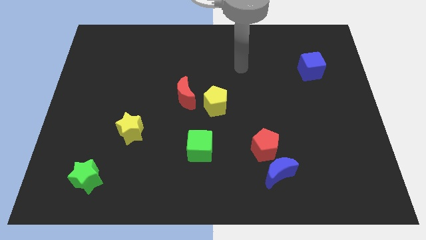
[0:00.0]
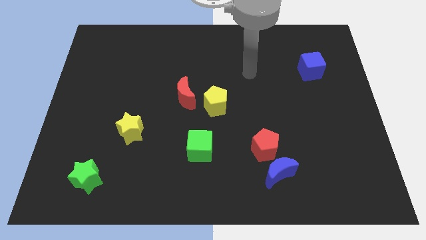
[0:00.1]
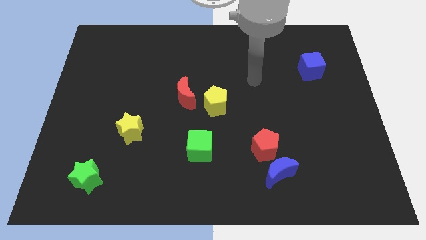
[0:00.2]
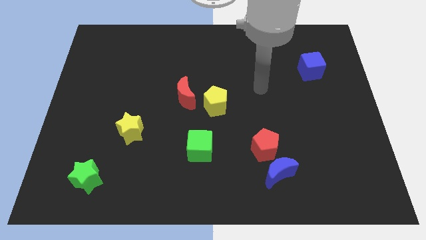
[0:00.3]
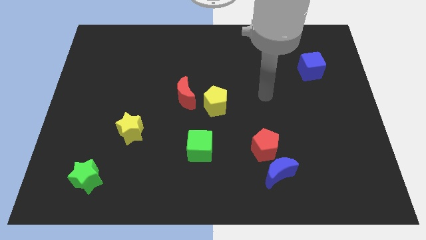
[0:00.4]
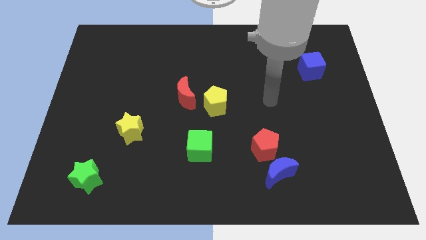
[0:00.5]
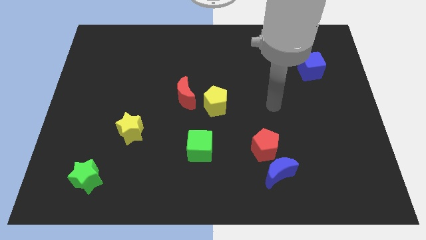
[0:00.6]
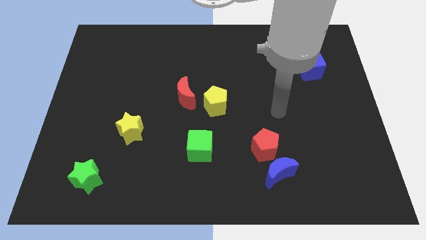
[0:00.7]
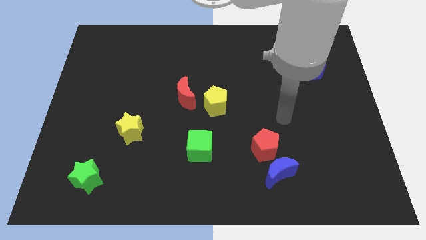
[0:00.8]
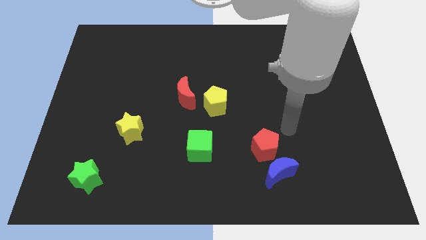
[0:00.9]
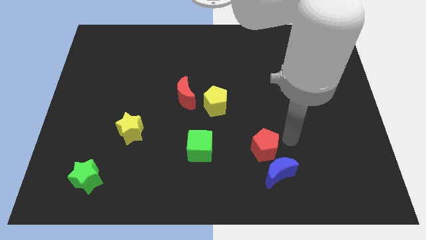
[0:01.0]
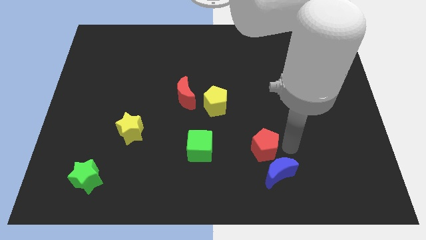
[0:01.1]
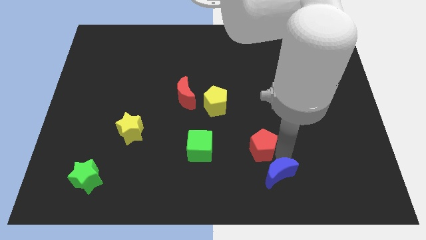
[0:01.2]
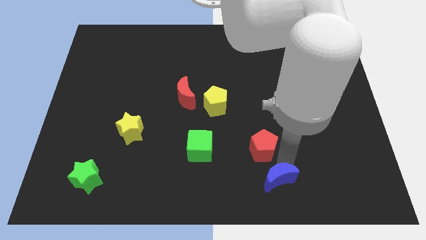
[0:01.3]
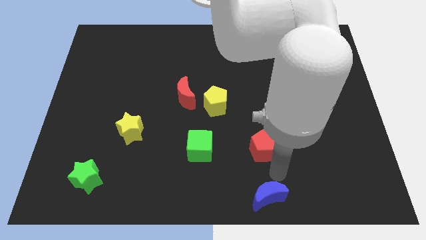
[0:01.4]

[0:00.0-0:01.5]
pull the red pentagon apart from the blue moon

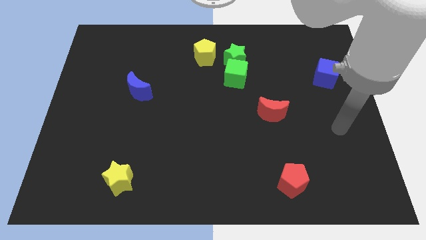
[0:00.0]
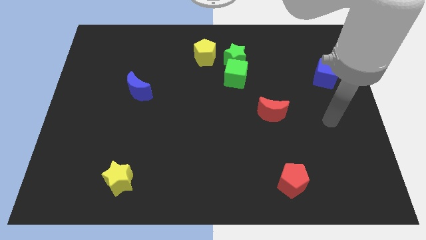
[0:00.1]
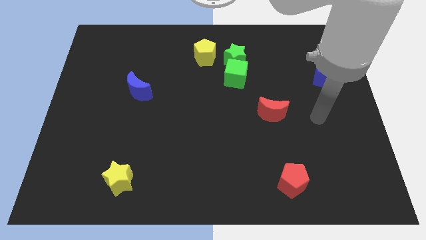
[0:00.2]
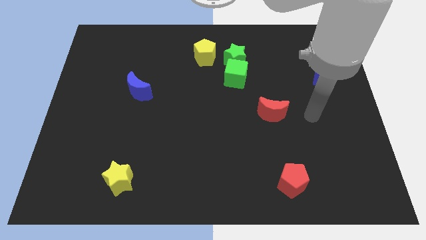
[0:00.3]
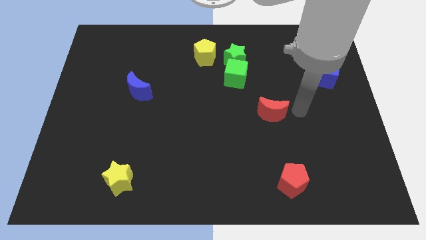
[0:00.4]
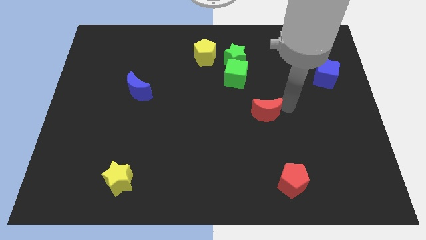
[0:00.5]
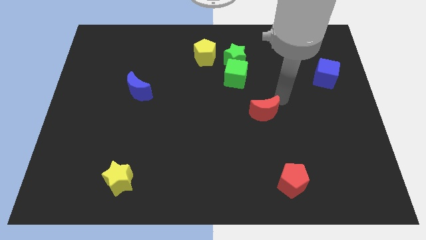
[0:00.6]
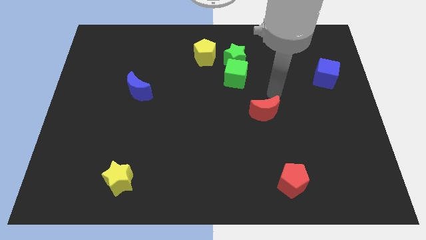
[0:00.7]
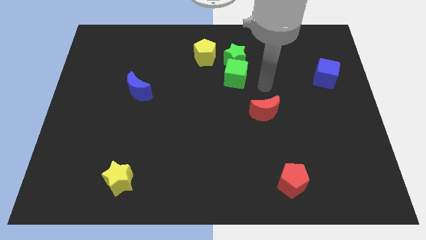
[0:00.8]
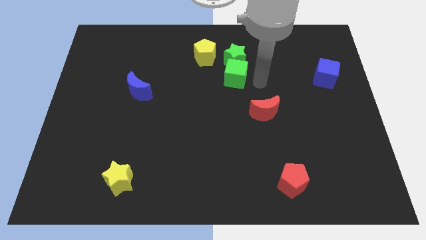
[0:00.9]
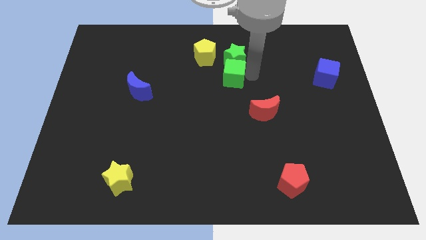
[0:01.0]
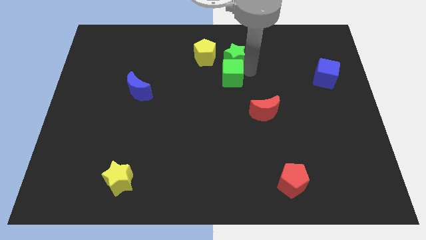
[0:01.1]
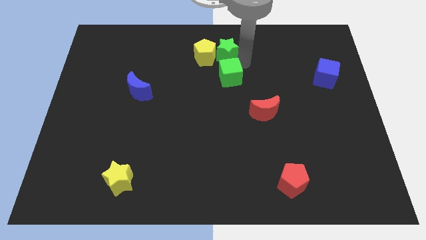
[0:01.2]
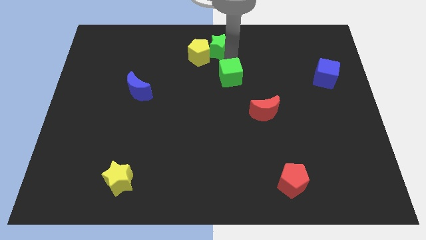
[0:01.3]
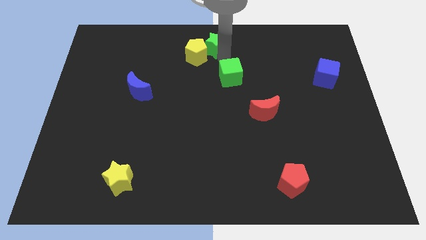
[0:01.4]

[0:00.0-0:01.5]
move the green cube away from the green star

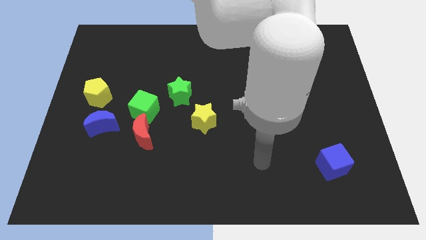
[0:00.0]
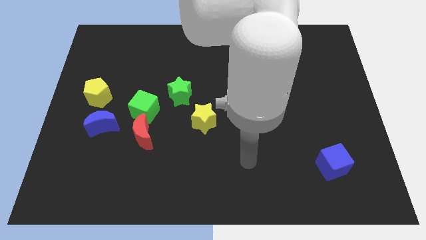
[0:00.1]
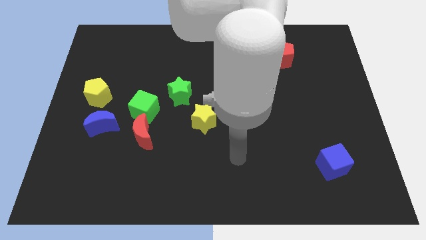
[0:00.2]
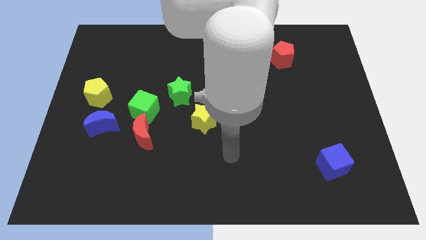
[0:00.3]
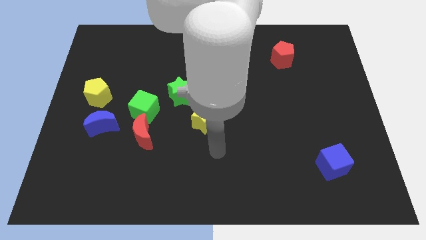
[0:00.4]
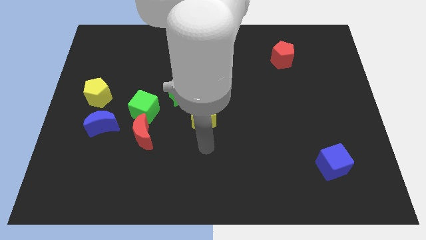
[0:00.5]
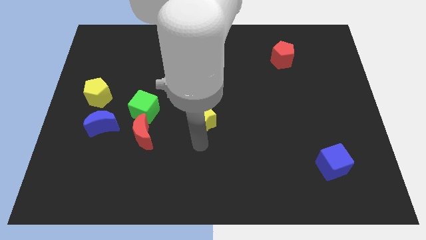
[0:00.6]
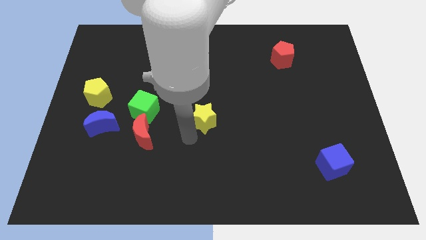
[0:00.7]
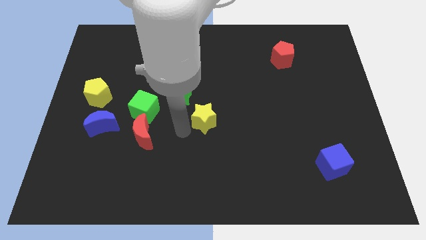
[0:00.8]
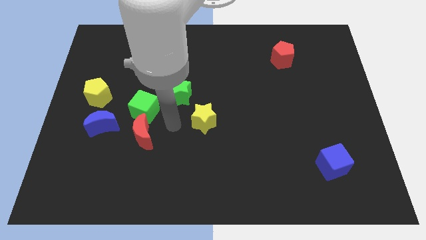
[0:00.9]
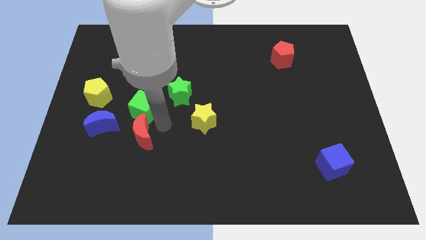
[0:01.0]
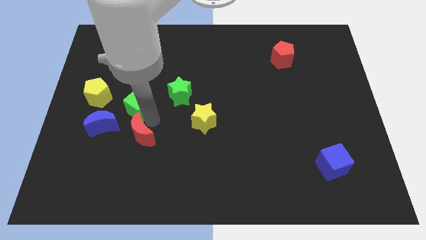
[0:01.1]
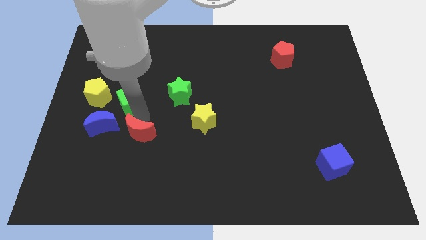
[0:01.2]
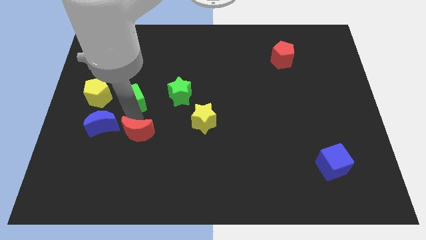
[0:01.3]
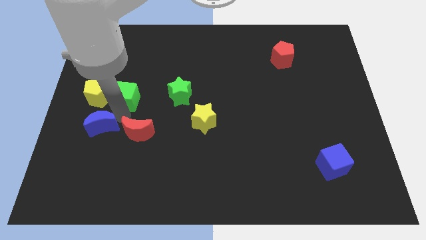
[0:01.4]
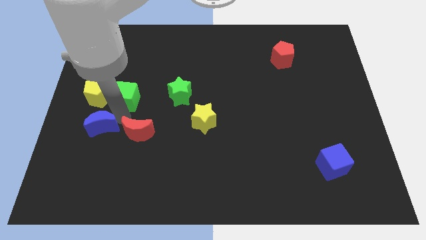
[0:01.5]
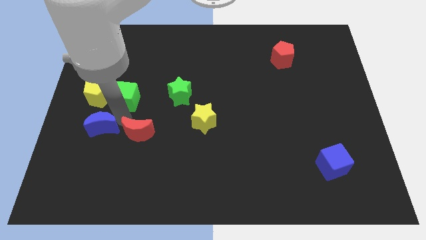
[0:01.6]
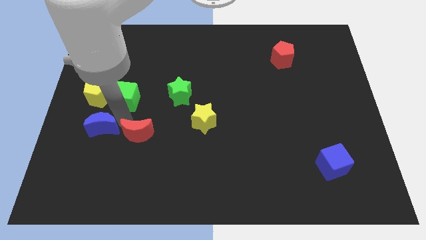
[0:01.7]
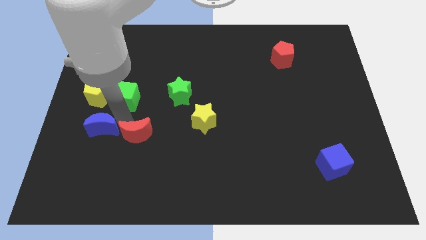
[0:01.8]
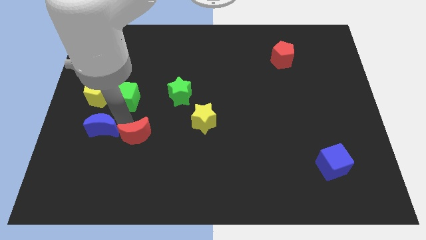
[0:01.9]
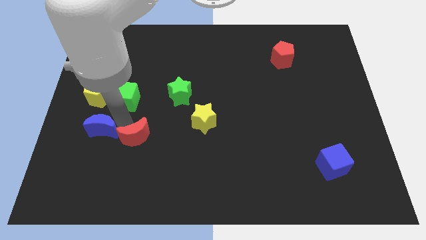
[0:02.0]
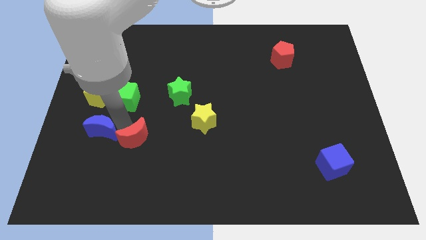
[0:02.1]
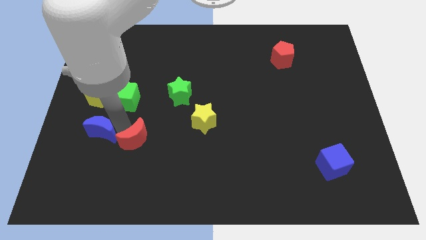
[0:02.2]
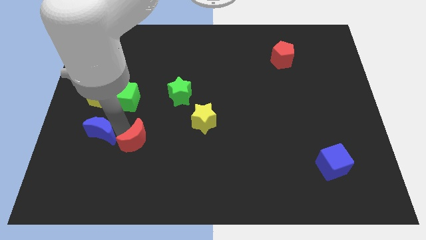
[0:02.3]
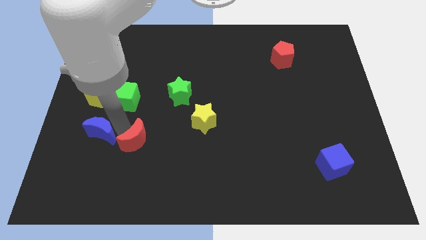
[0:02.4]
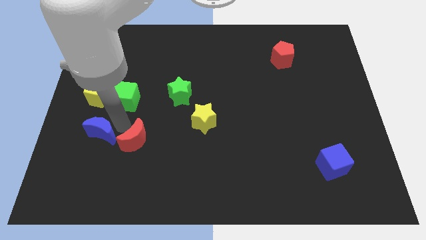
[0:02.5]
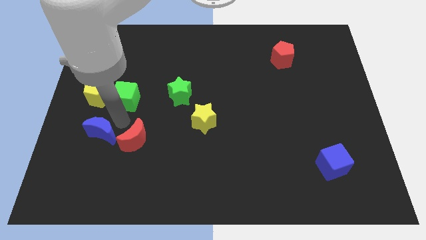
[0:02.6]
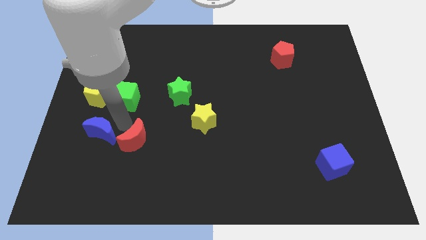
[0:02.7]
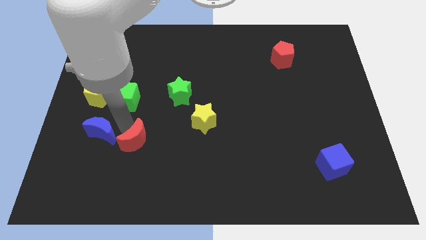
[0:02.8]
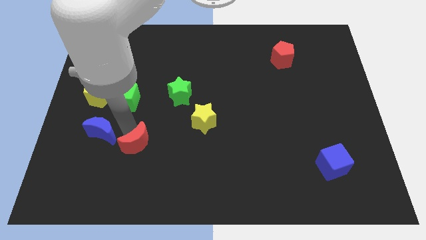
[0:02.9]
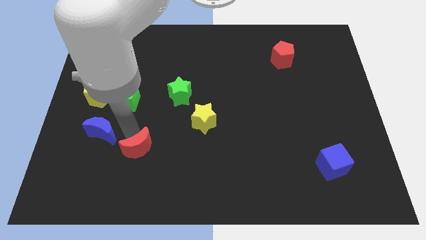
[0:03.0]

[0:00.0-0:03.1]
pull the red moon apart from the green cube and blue moon

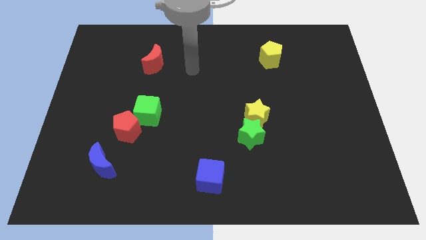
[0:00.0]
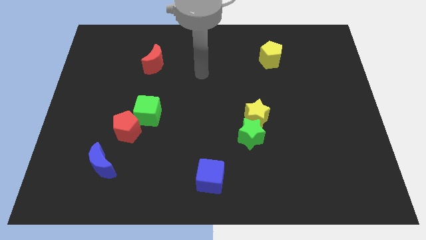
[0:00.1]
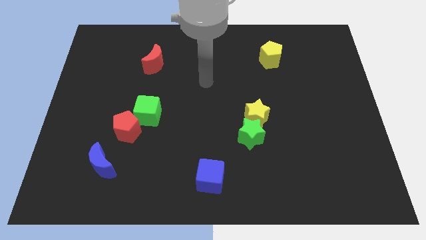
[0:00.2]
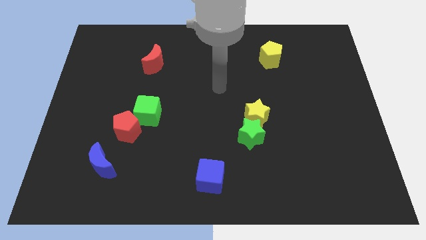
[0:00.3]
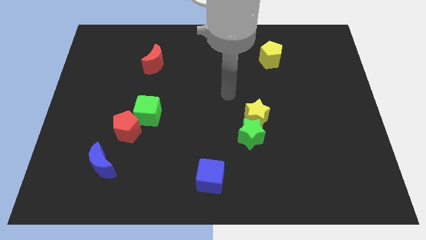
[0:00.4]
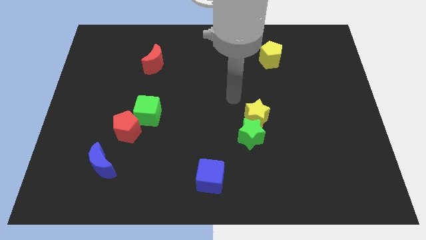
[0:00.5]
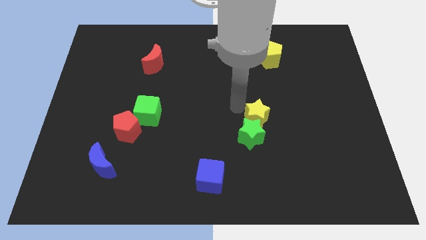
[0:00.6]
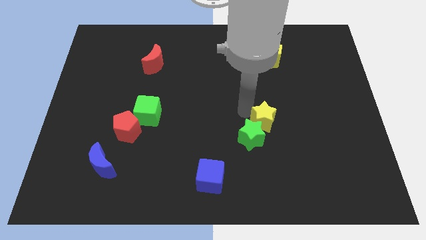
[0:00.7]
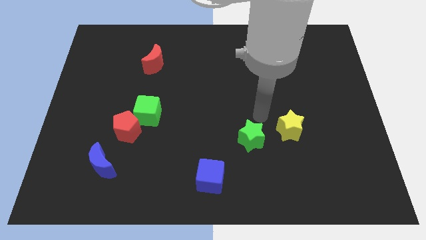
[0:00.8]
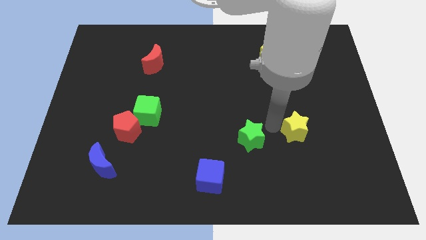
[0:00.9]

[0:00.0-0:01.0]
move the green star away from the yellow star

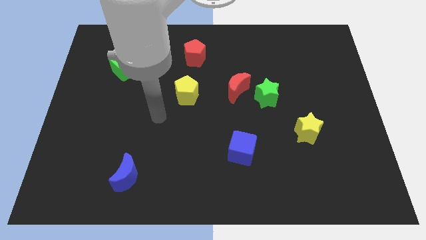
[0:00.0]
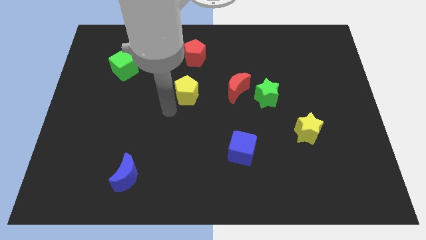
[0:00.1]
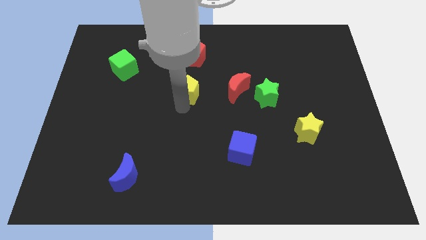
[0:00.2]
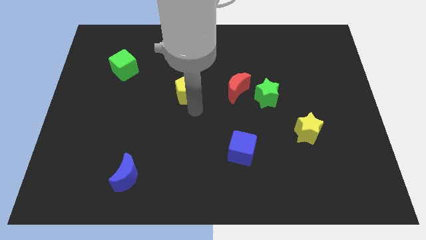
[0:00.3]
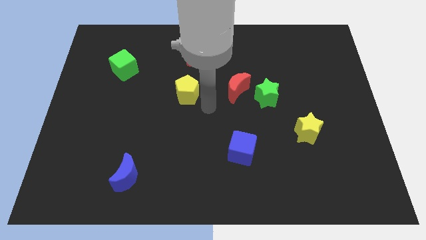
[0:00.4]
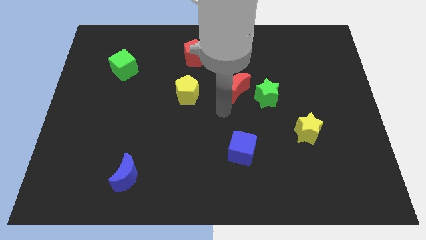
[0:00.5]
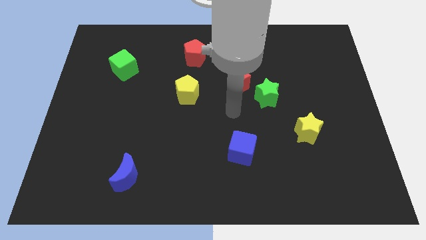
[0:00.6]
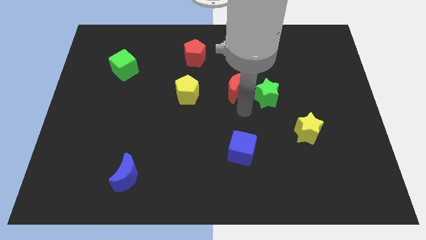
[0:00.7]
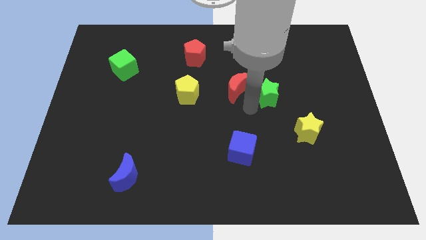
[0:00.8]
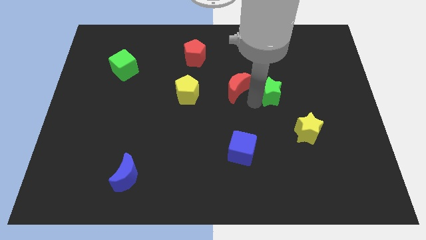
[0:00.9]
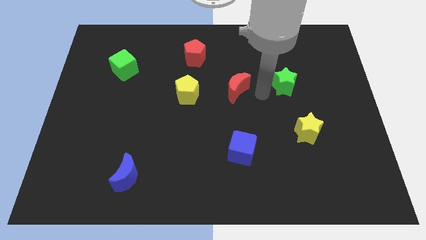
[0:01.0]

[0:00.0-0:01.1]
pull the red moon apart from the green star

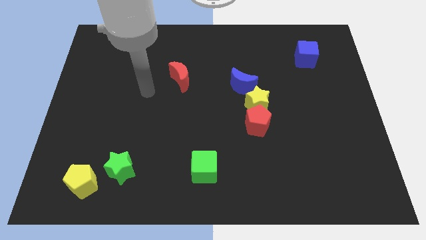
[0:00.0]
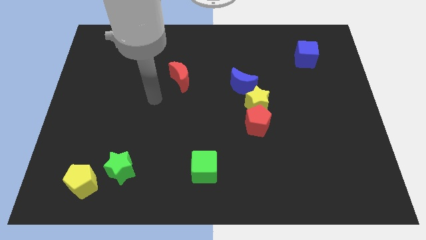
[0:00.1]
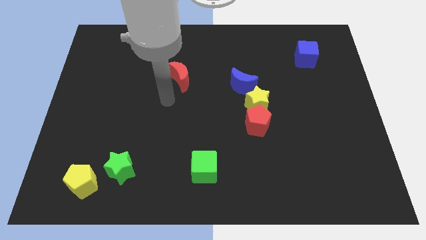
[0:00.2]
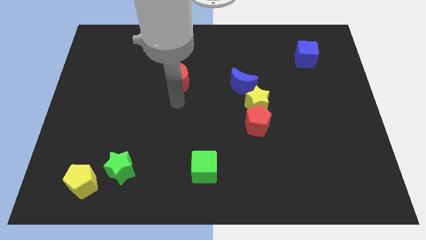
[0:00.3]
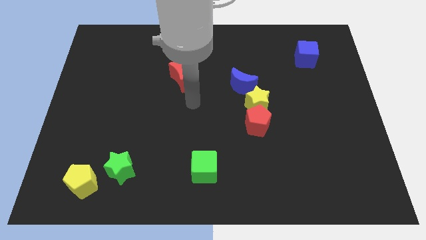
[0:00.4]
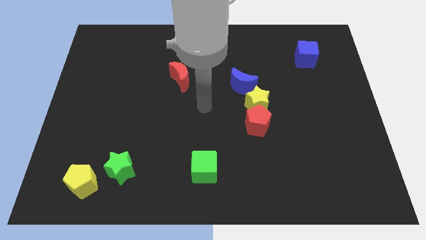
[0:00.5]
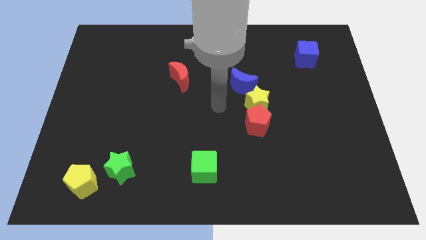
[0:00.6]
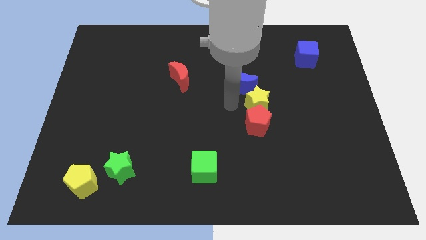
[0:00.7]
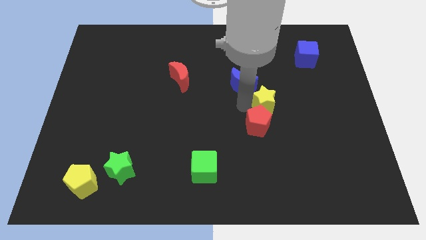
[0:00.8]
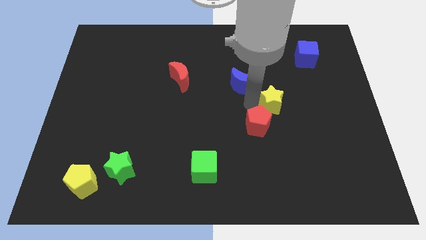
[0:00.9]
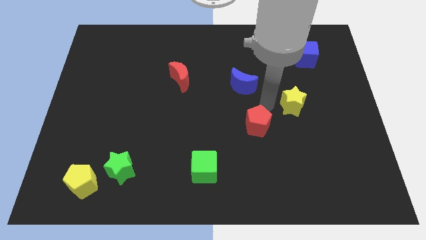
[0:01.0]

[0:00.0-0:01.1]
separate the red pentagon from the yellow star
